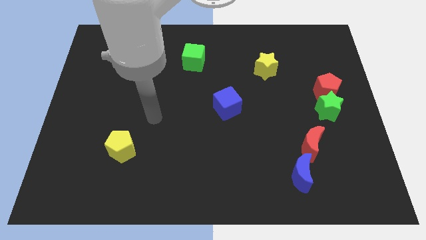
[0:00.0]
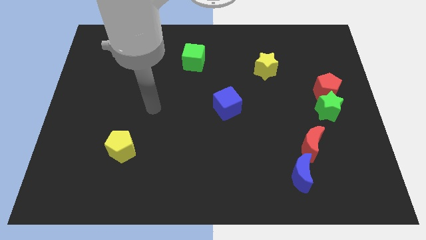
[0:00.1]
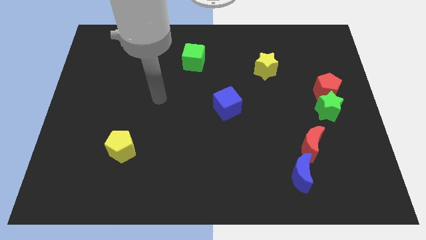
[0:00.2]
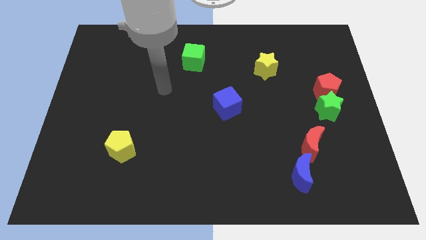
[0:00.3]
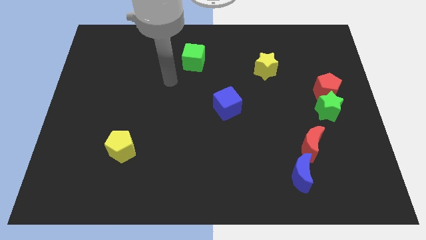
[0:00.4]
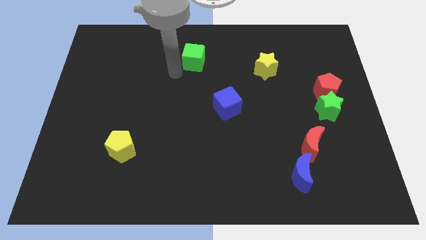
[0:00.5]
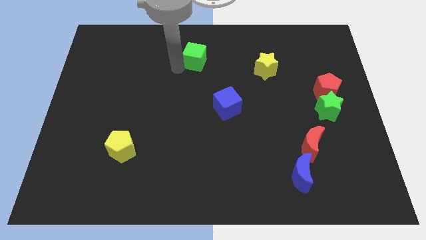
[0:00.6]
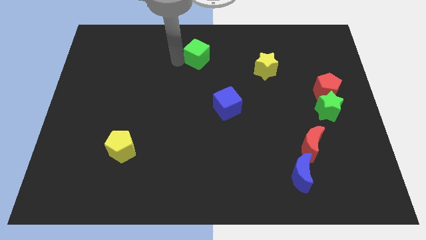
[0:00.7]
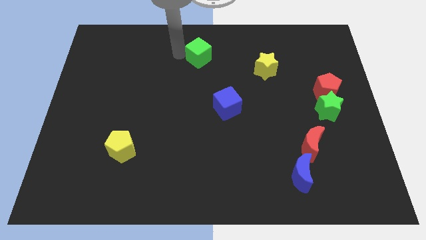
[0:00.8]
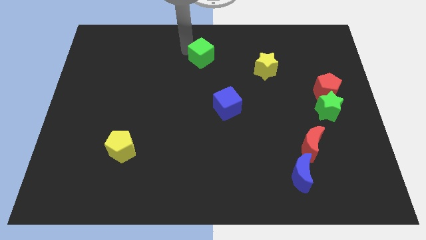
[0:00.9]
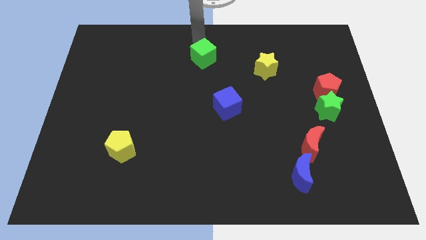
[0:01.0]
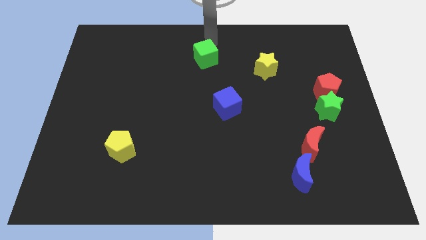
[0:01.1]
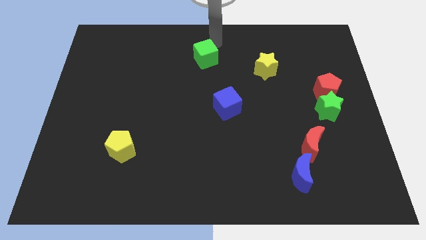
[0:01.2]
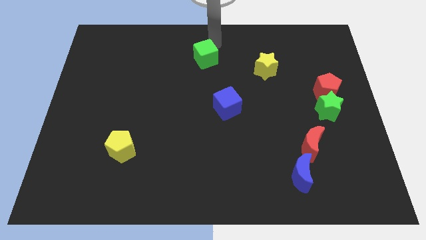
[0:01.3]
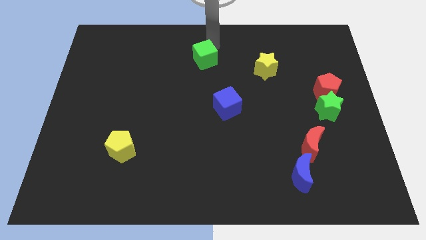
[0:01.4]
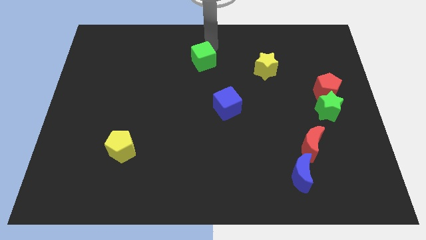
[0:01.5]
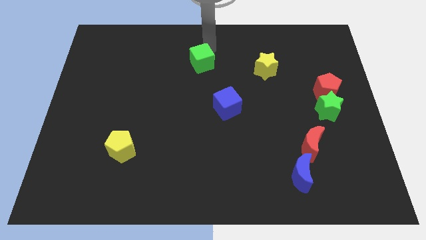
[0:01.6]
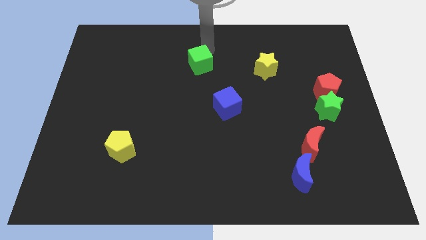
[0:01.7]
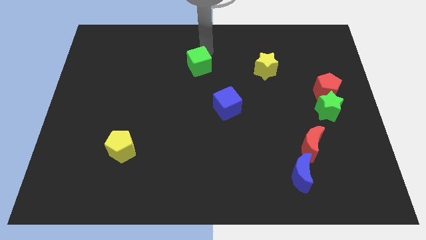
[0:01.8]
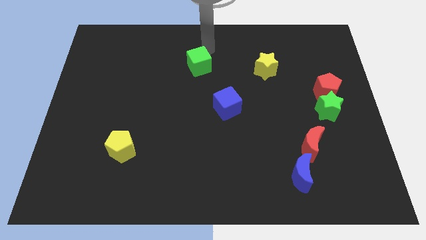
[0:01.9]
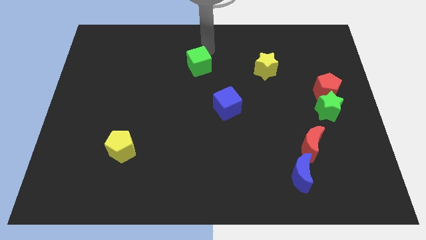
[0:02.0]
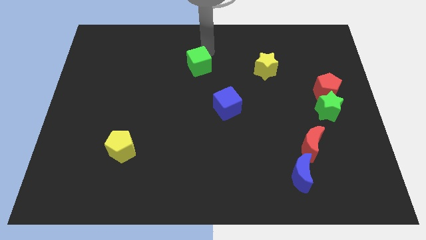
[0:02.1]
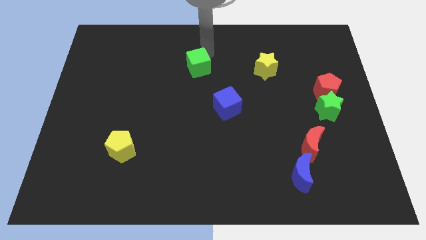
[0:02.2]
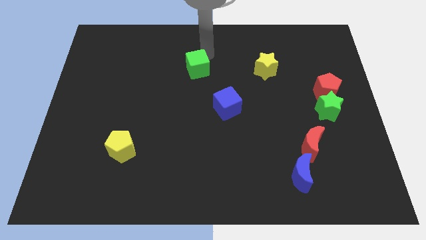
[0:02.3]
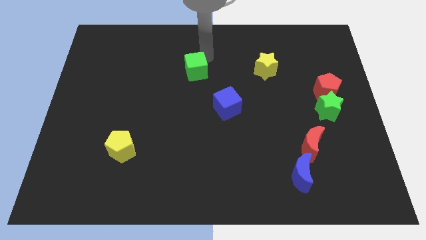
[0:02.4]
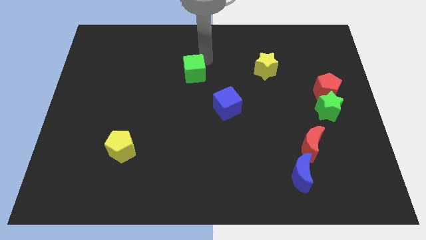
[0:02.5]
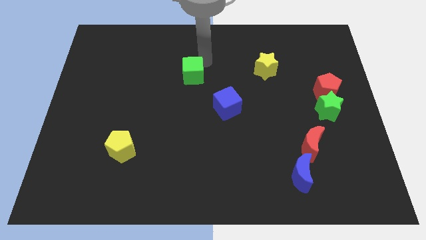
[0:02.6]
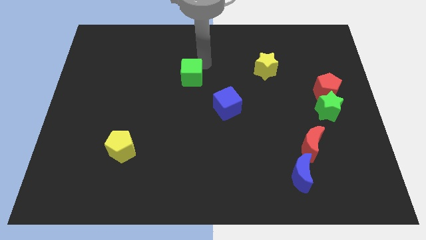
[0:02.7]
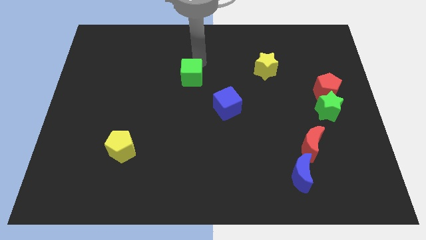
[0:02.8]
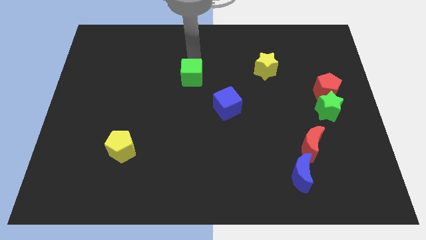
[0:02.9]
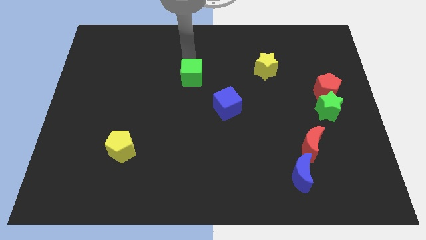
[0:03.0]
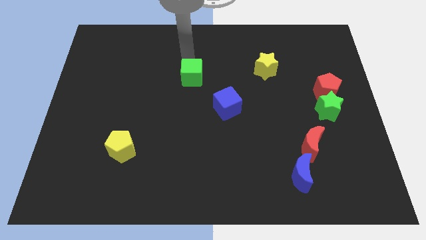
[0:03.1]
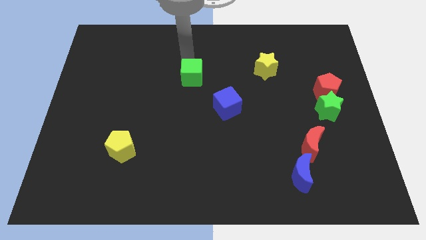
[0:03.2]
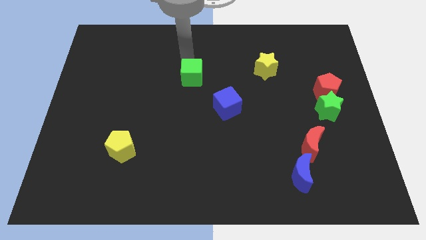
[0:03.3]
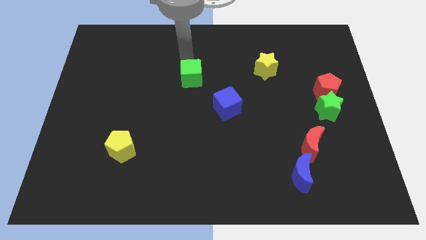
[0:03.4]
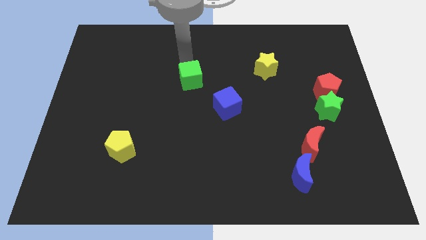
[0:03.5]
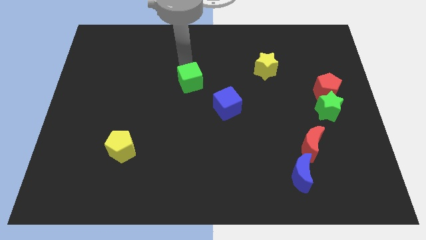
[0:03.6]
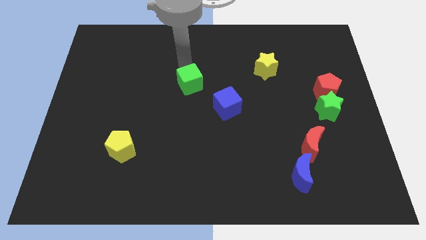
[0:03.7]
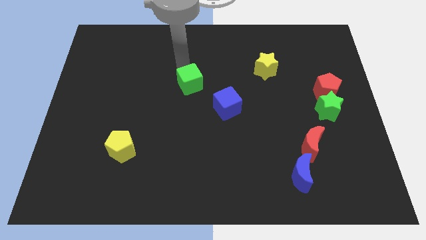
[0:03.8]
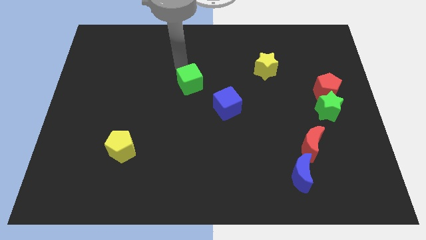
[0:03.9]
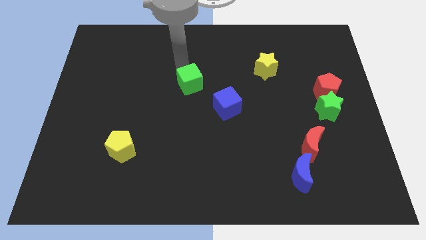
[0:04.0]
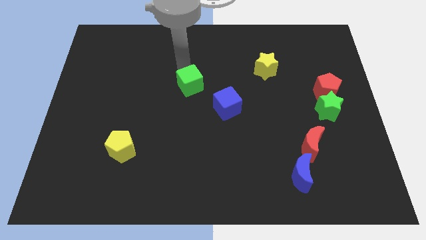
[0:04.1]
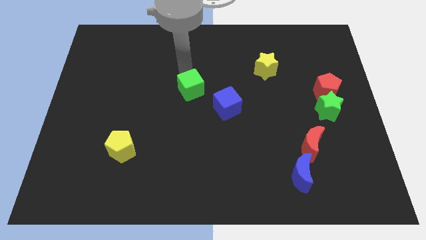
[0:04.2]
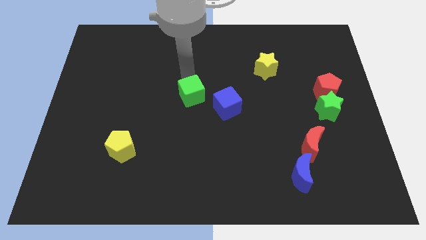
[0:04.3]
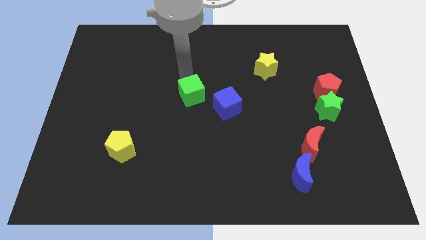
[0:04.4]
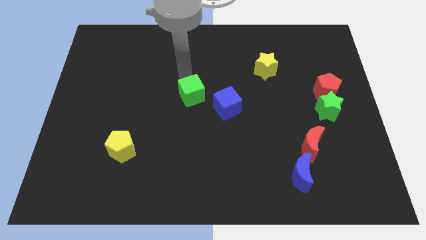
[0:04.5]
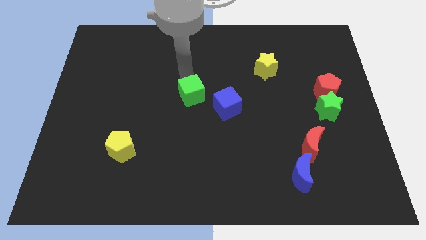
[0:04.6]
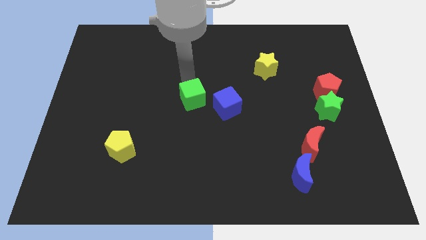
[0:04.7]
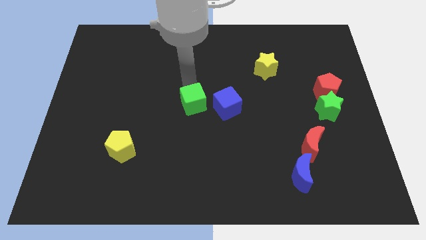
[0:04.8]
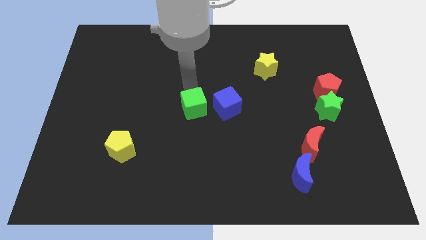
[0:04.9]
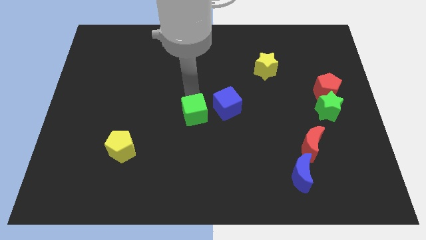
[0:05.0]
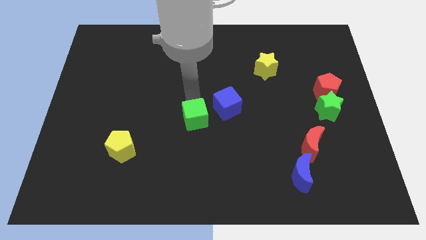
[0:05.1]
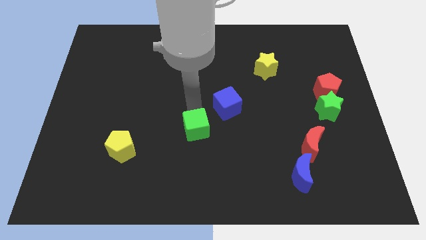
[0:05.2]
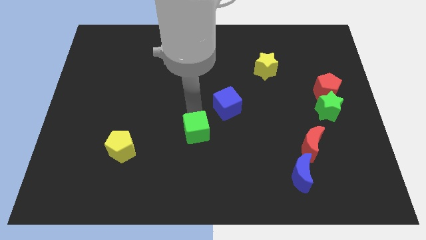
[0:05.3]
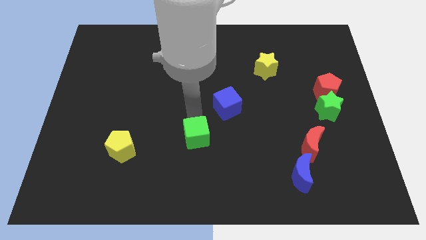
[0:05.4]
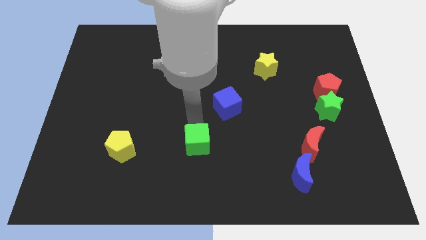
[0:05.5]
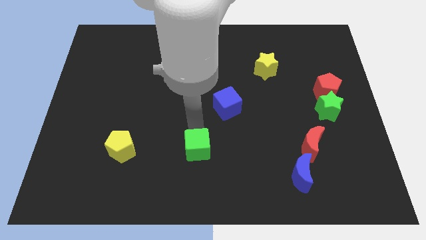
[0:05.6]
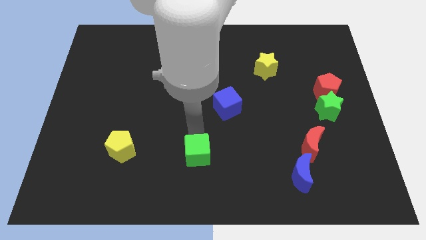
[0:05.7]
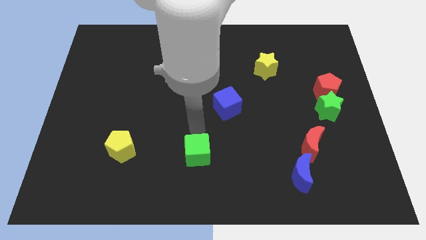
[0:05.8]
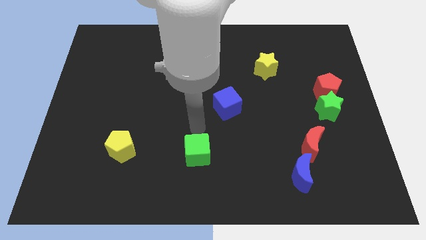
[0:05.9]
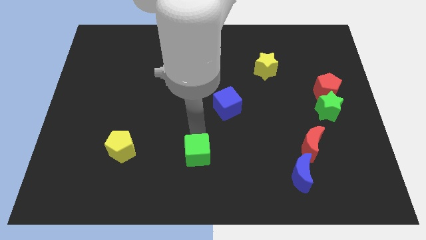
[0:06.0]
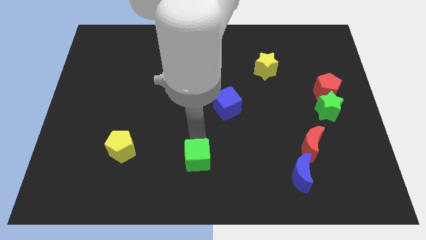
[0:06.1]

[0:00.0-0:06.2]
put the green cube to the bottom
